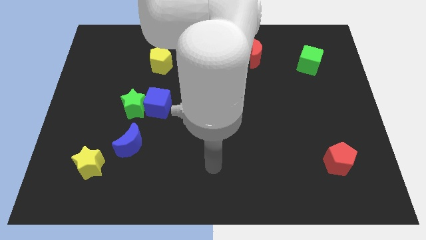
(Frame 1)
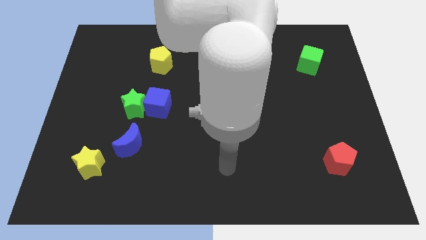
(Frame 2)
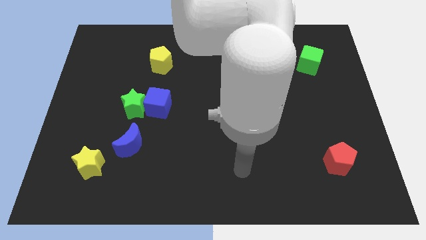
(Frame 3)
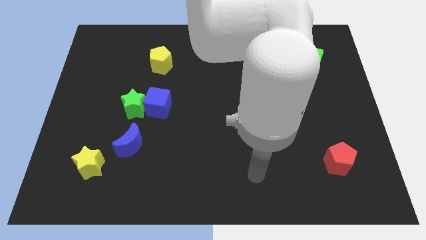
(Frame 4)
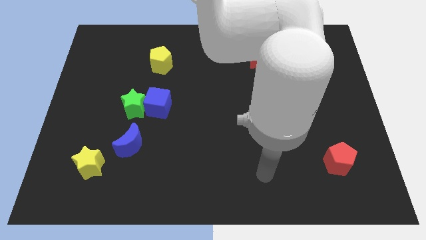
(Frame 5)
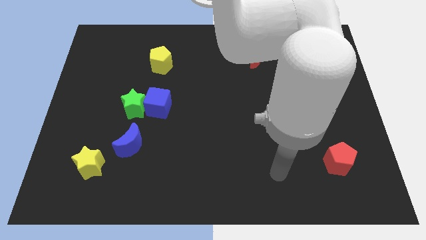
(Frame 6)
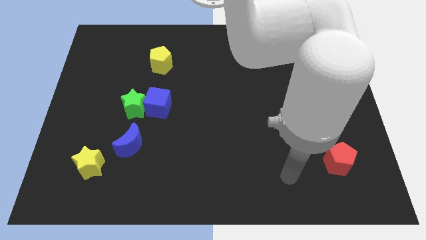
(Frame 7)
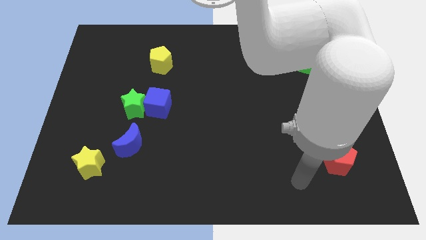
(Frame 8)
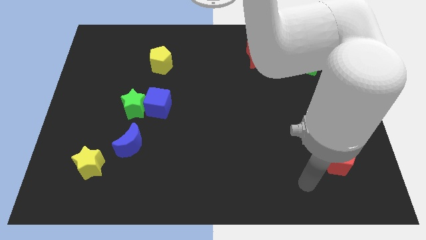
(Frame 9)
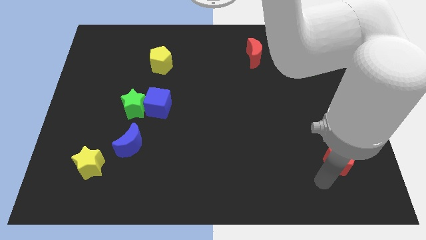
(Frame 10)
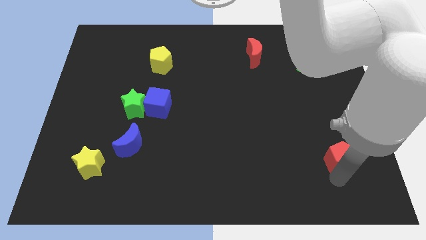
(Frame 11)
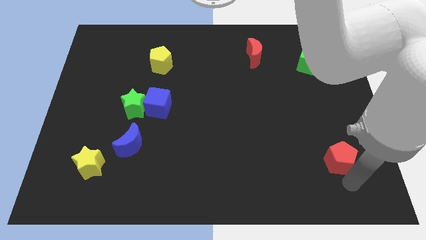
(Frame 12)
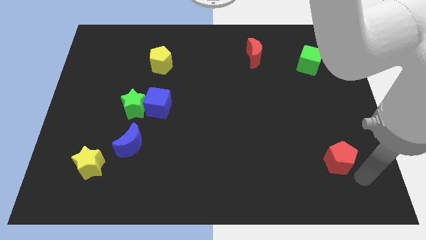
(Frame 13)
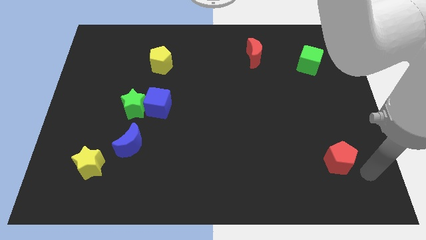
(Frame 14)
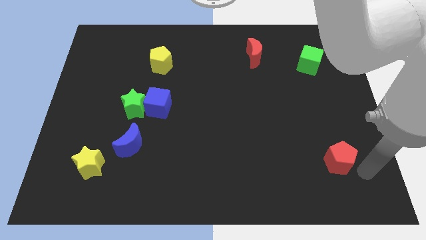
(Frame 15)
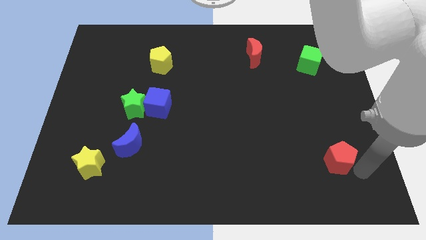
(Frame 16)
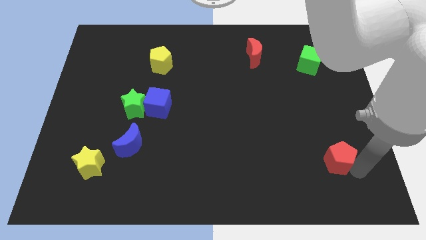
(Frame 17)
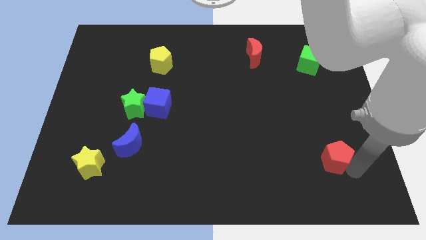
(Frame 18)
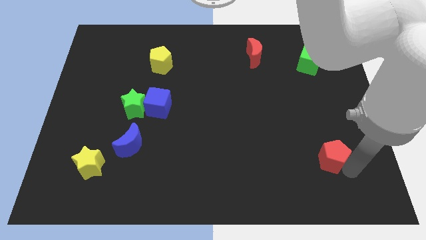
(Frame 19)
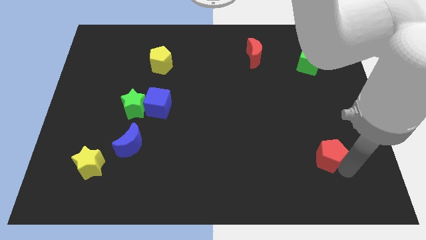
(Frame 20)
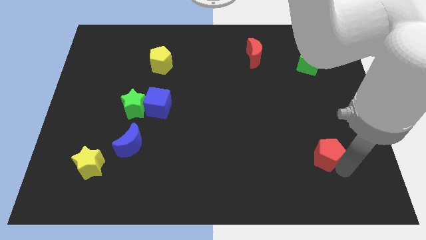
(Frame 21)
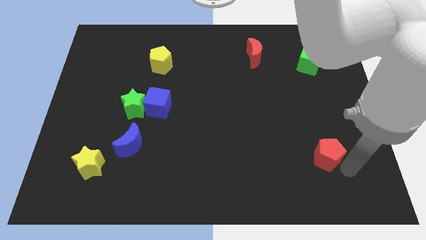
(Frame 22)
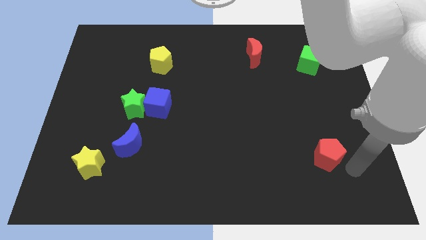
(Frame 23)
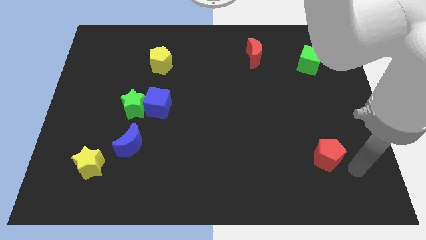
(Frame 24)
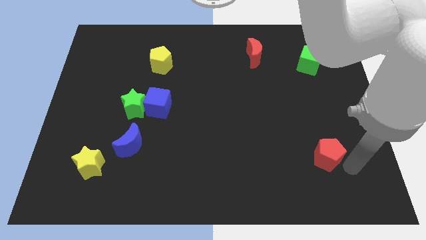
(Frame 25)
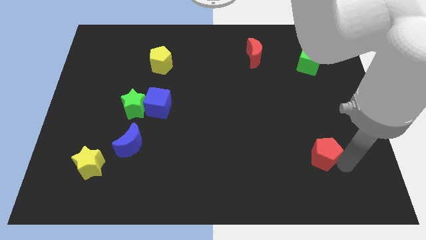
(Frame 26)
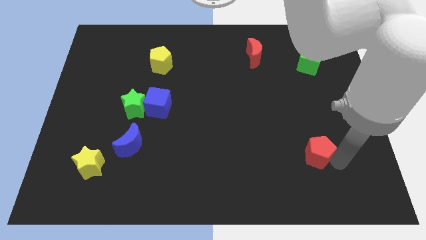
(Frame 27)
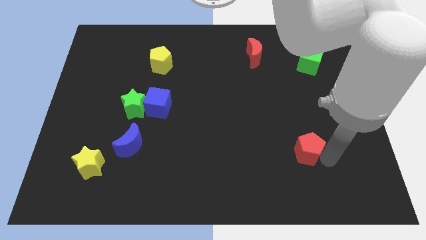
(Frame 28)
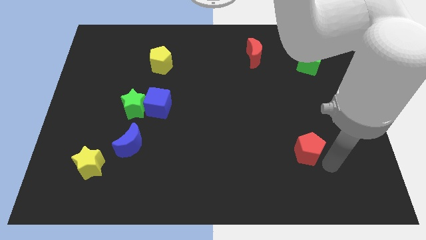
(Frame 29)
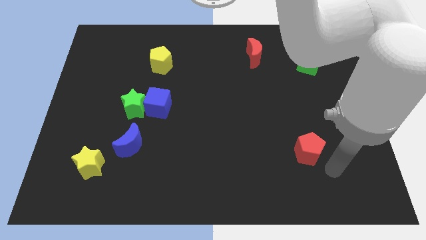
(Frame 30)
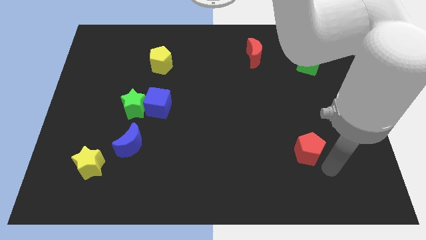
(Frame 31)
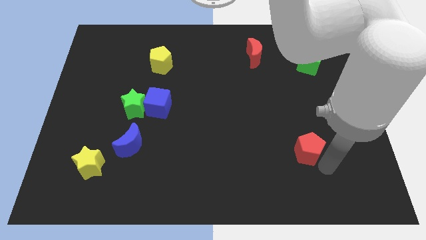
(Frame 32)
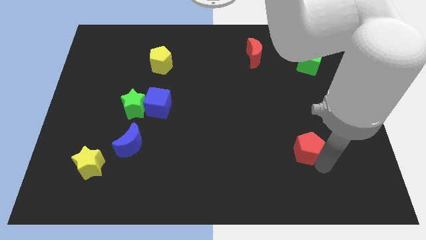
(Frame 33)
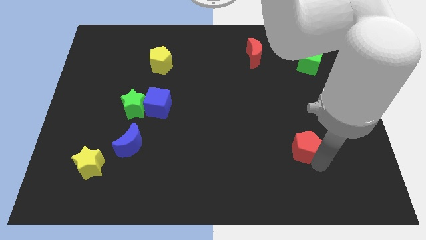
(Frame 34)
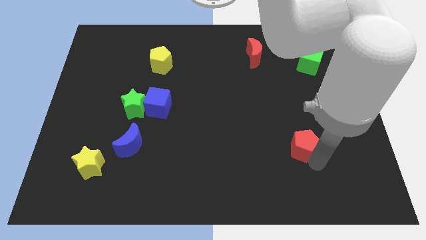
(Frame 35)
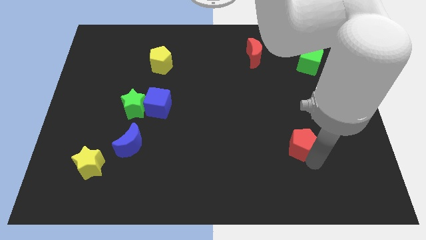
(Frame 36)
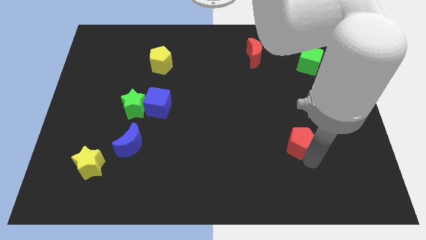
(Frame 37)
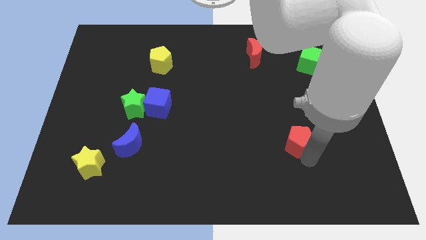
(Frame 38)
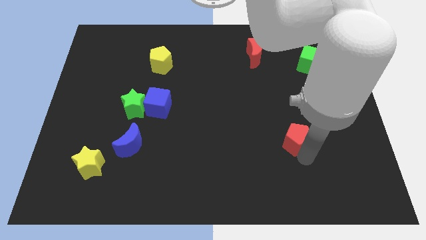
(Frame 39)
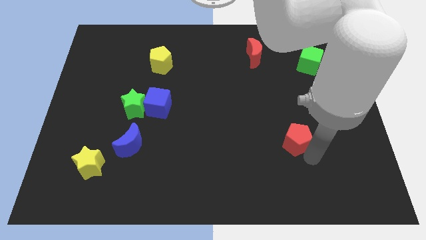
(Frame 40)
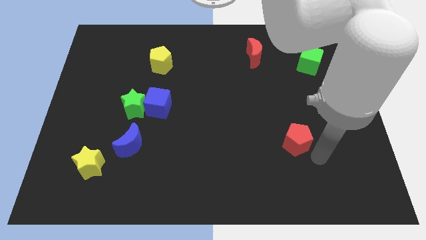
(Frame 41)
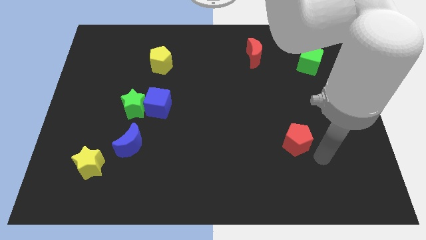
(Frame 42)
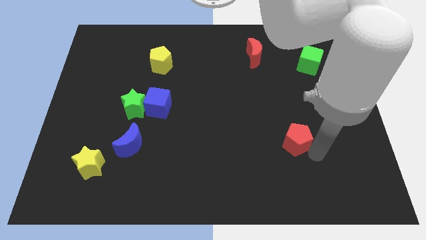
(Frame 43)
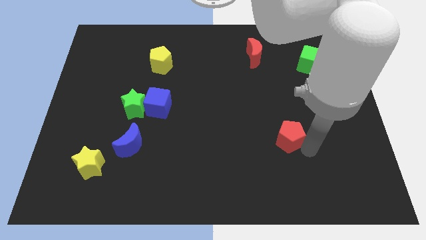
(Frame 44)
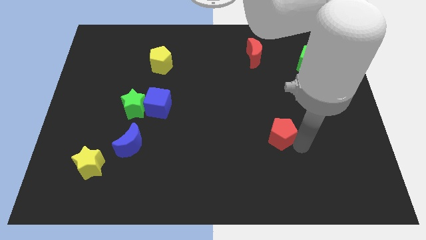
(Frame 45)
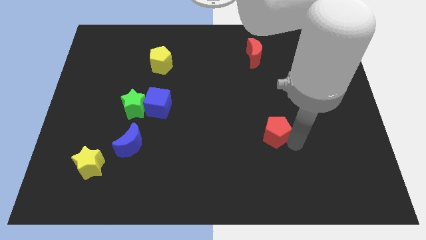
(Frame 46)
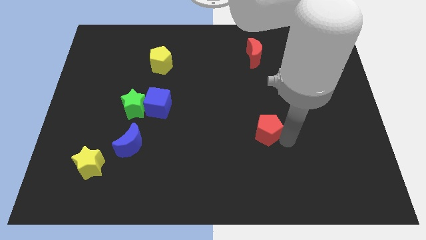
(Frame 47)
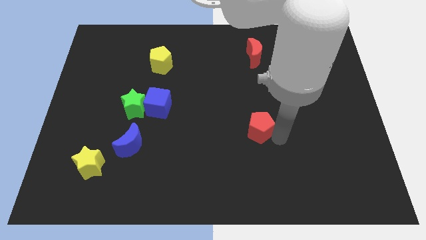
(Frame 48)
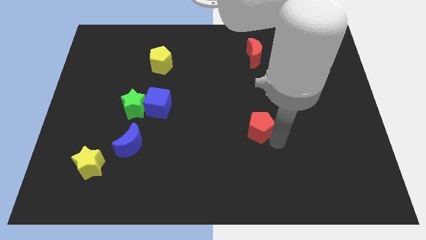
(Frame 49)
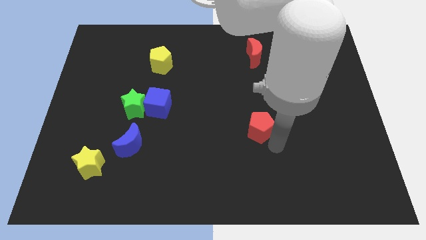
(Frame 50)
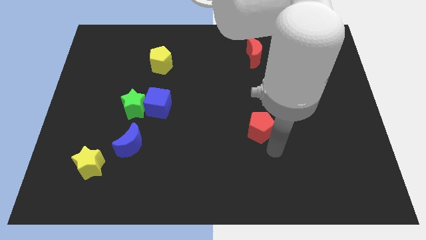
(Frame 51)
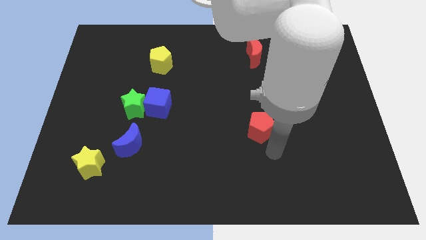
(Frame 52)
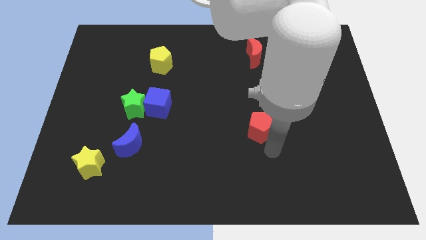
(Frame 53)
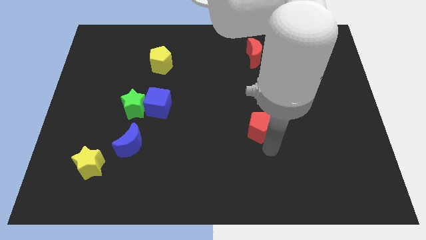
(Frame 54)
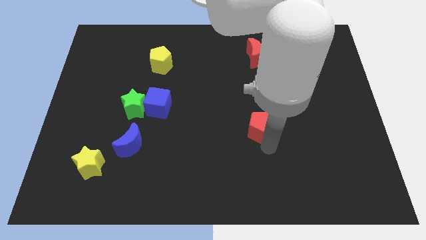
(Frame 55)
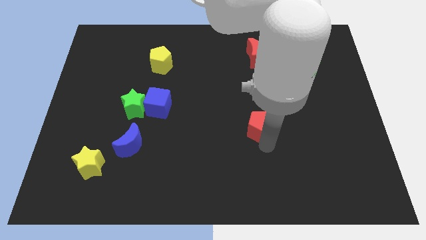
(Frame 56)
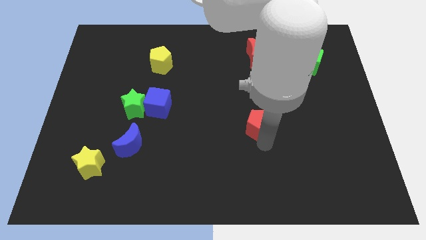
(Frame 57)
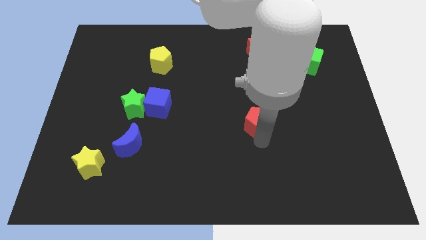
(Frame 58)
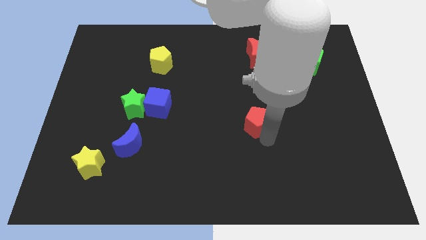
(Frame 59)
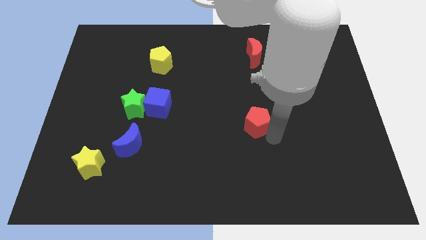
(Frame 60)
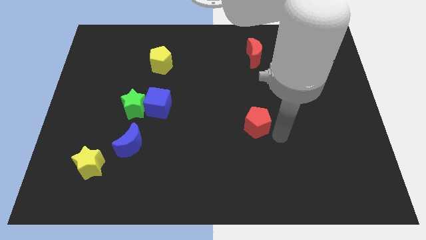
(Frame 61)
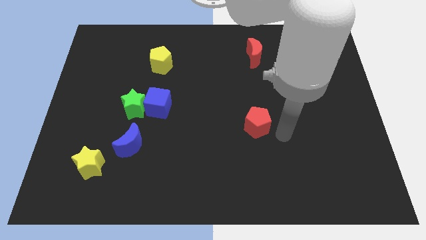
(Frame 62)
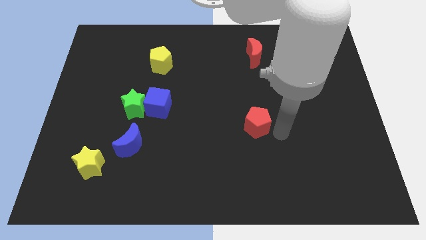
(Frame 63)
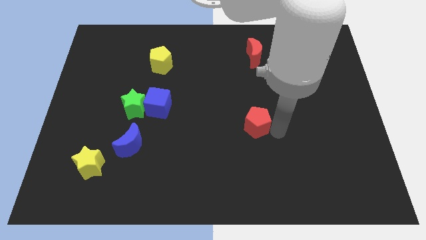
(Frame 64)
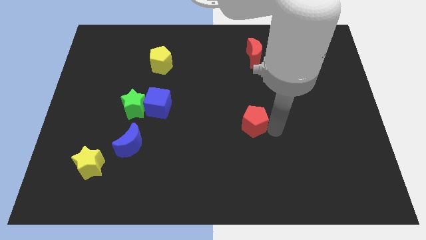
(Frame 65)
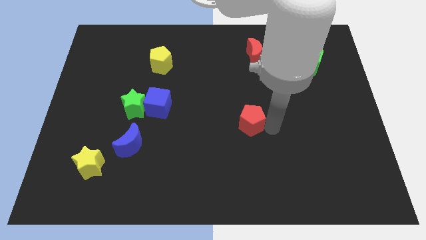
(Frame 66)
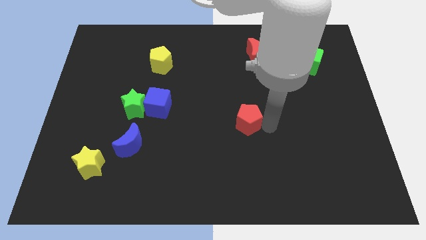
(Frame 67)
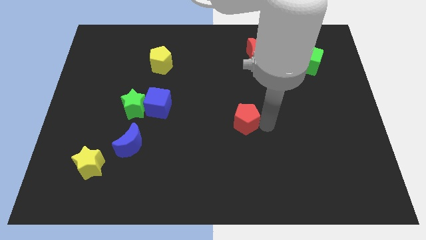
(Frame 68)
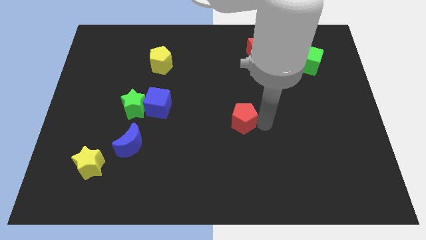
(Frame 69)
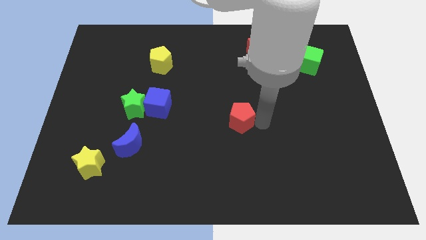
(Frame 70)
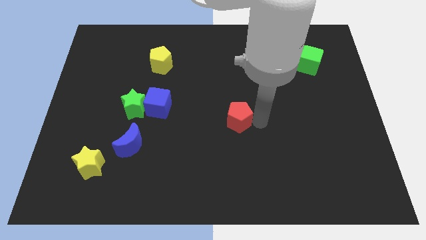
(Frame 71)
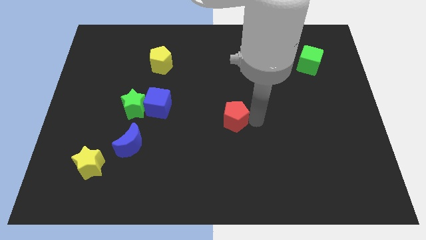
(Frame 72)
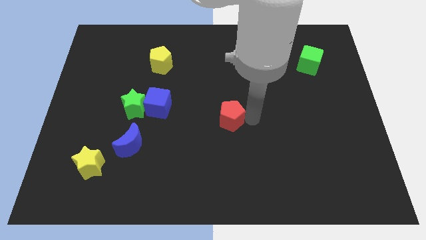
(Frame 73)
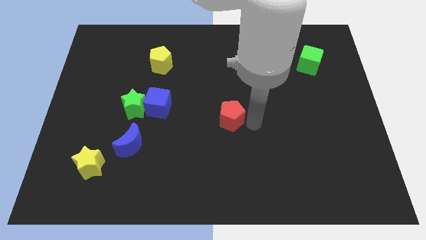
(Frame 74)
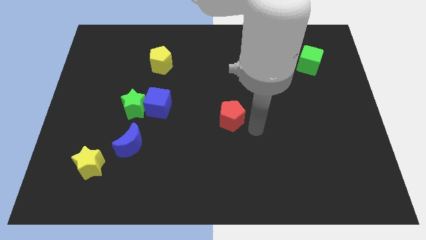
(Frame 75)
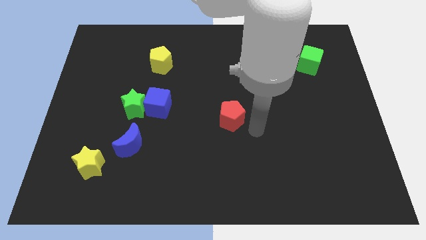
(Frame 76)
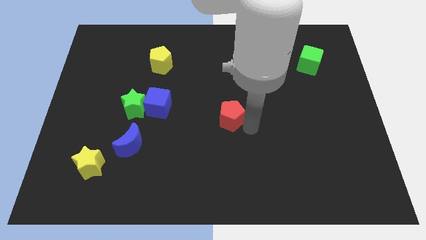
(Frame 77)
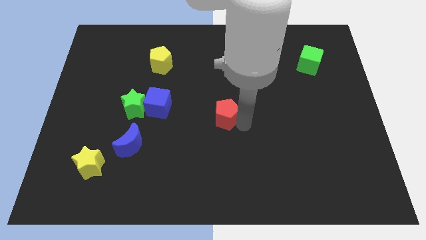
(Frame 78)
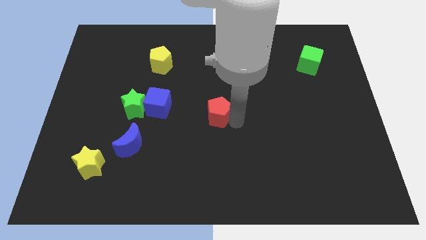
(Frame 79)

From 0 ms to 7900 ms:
push the red pentagon to the right side of the blue cube
